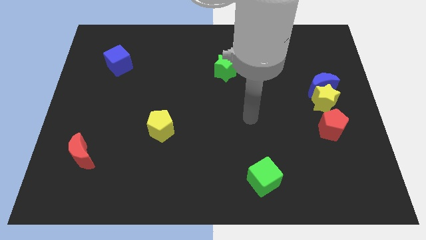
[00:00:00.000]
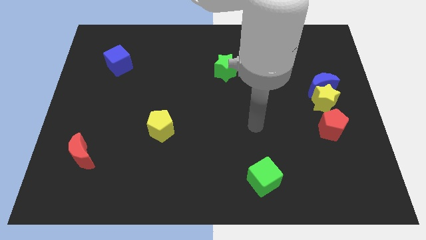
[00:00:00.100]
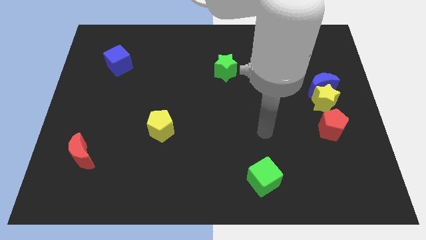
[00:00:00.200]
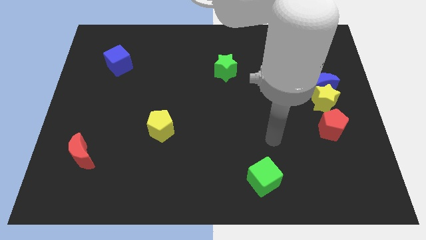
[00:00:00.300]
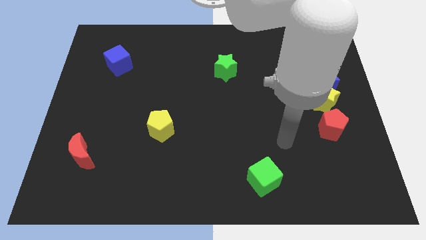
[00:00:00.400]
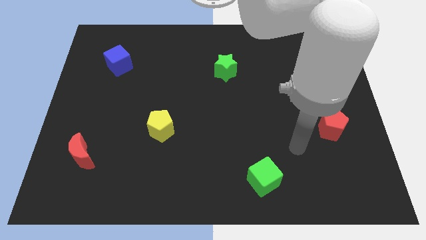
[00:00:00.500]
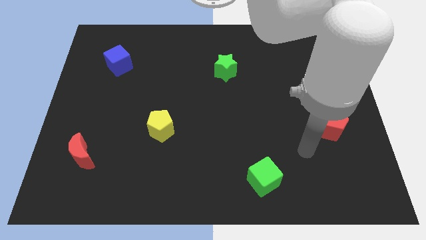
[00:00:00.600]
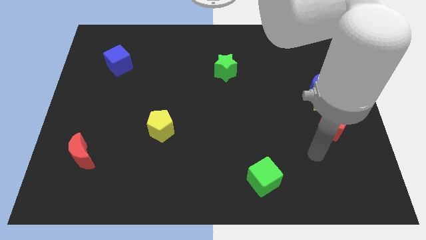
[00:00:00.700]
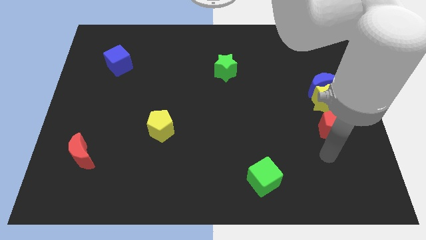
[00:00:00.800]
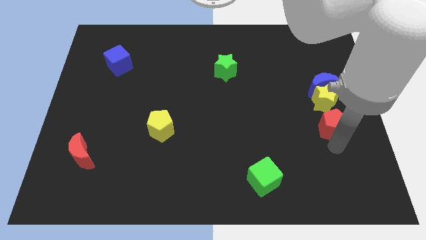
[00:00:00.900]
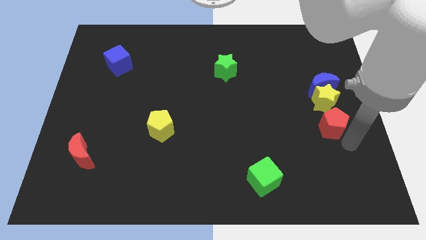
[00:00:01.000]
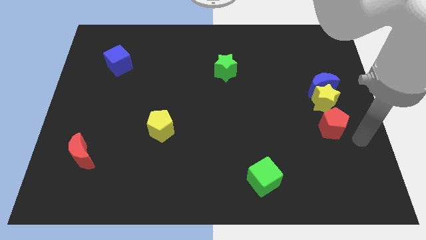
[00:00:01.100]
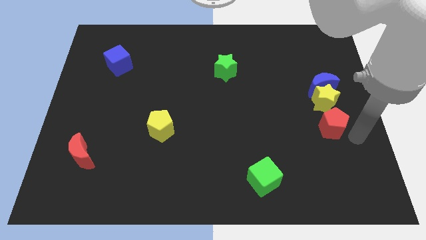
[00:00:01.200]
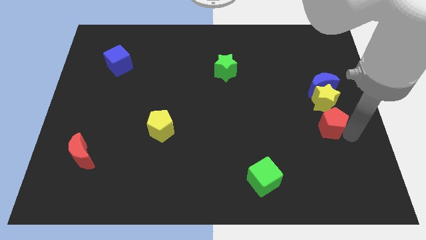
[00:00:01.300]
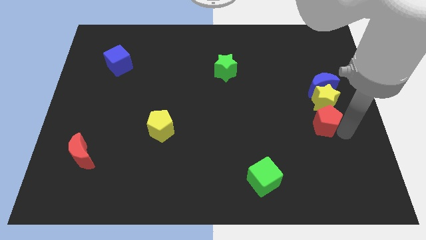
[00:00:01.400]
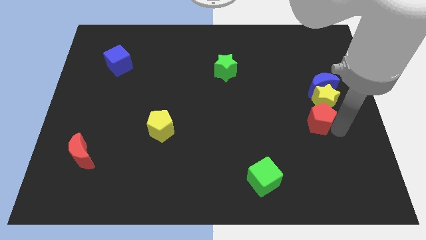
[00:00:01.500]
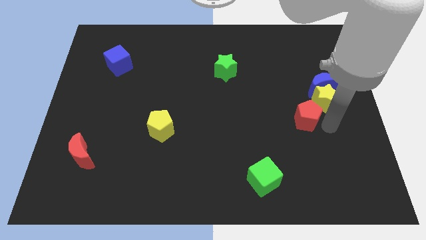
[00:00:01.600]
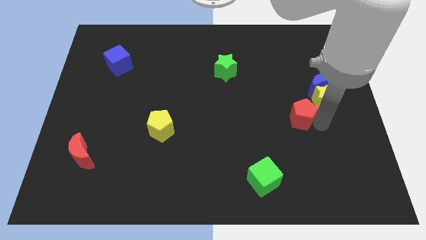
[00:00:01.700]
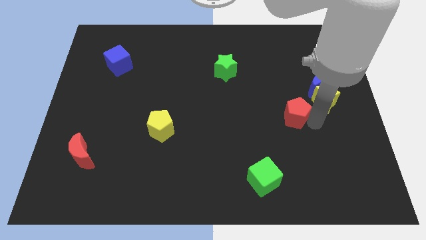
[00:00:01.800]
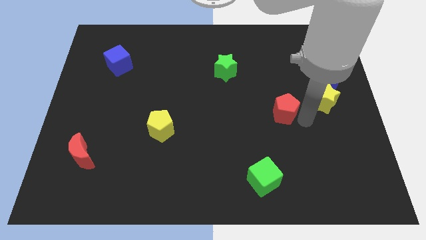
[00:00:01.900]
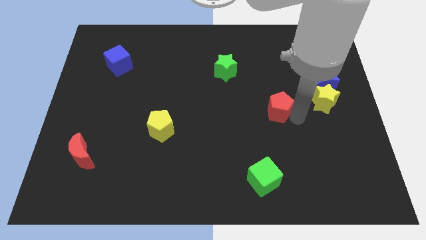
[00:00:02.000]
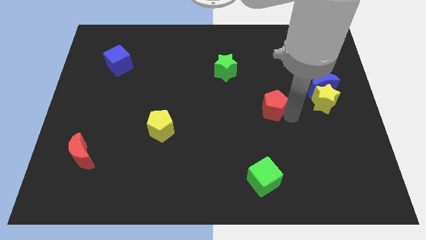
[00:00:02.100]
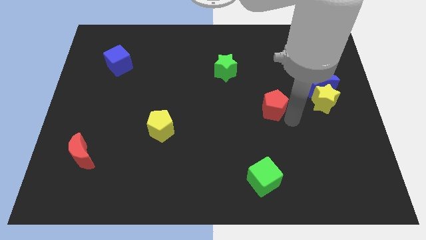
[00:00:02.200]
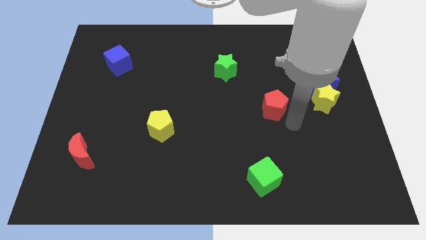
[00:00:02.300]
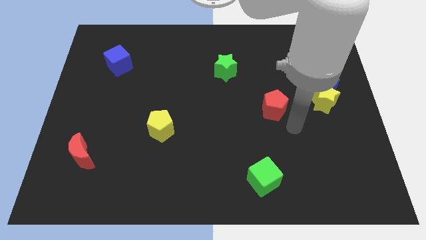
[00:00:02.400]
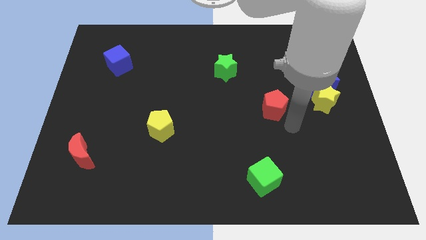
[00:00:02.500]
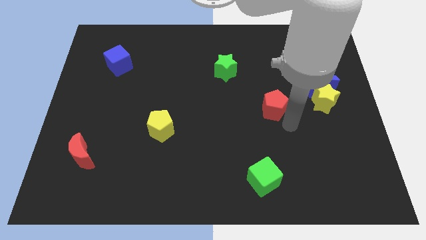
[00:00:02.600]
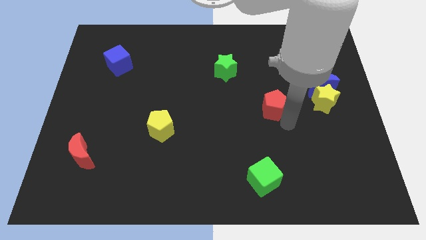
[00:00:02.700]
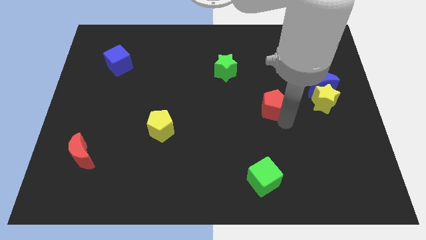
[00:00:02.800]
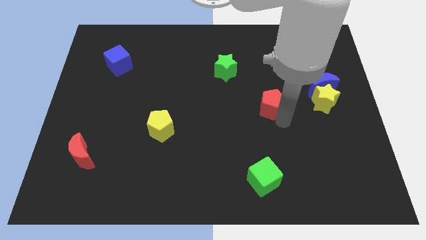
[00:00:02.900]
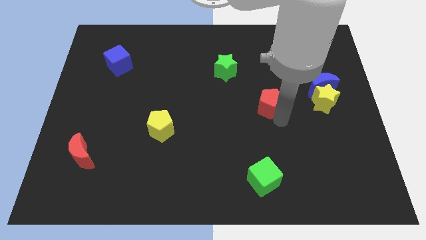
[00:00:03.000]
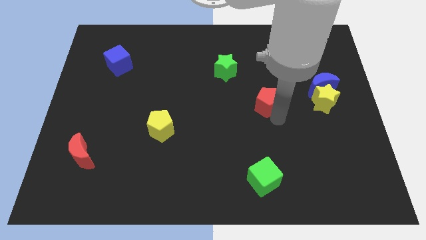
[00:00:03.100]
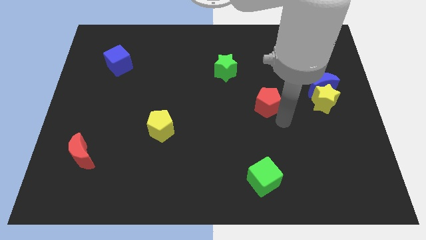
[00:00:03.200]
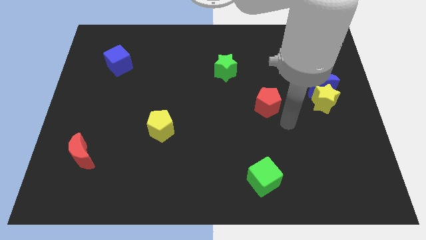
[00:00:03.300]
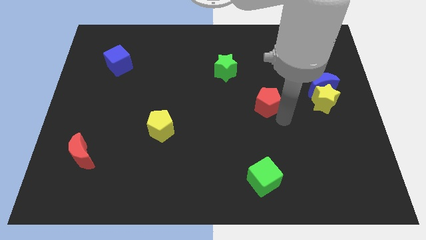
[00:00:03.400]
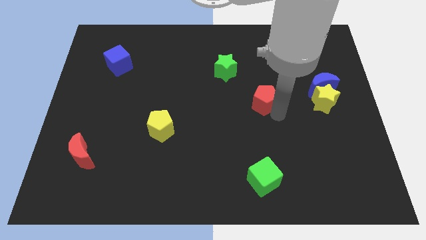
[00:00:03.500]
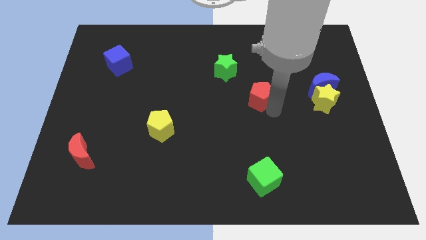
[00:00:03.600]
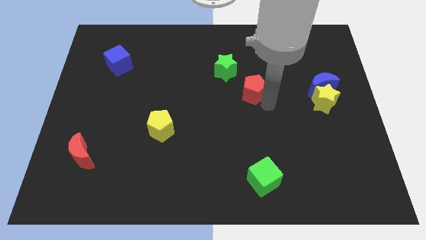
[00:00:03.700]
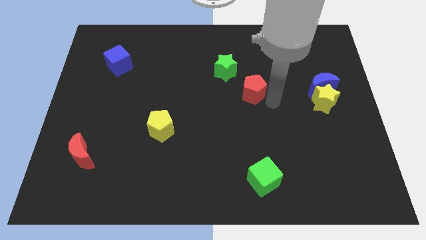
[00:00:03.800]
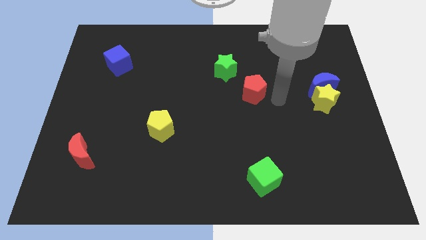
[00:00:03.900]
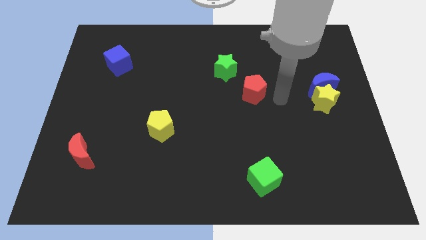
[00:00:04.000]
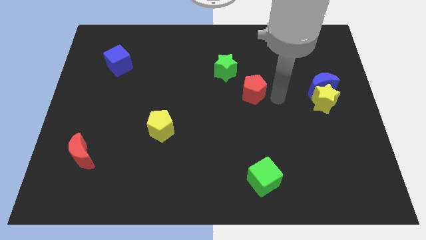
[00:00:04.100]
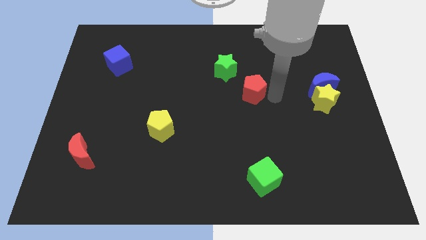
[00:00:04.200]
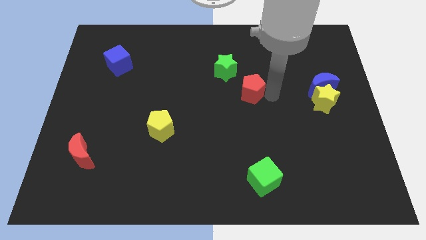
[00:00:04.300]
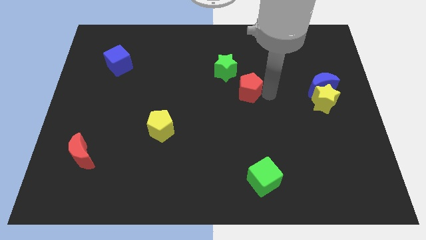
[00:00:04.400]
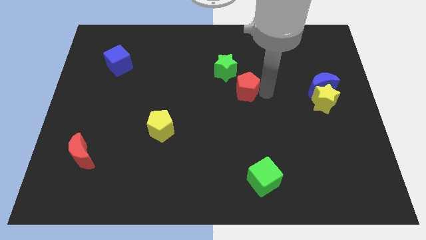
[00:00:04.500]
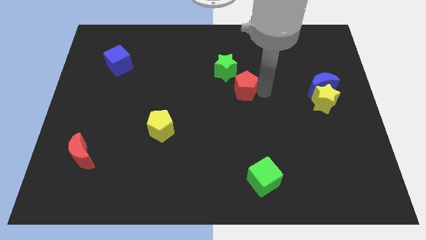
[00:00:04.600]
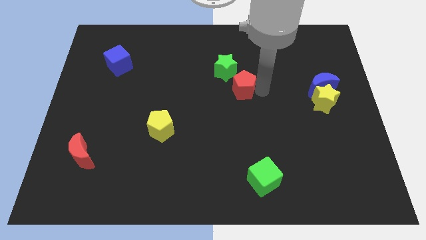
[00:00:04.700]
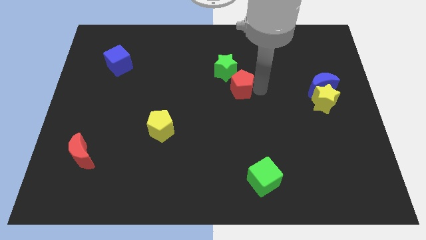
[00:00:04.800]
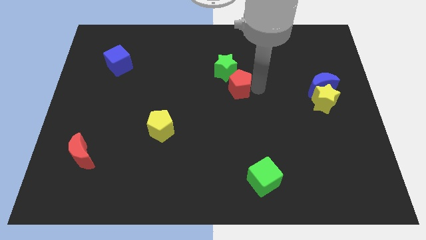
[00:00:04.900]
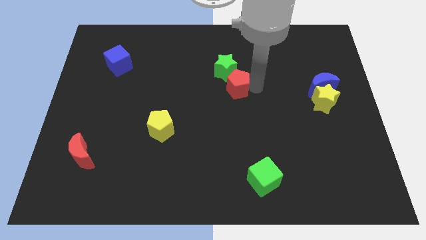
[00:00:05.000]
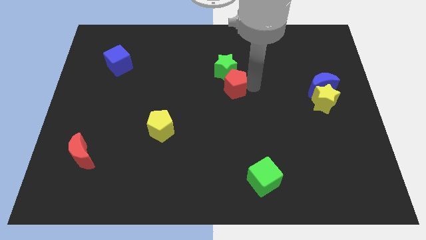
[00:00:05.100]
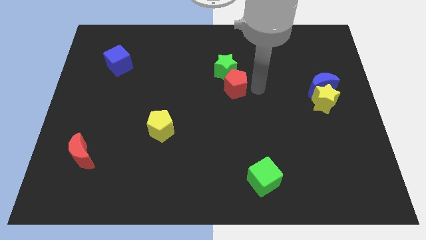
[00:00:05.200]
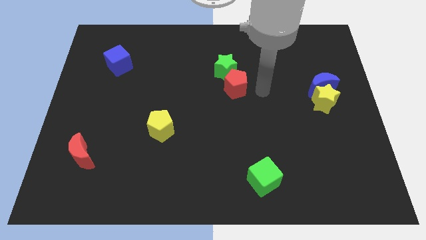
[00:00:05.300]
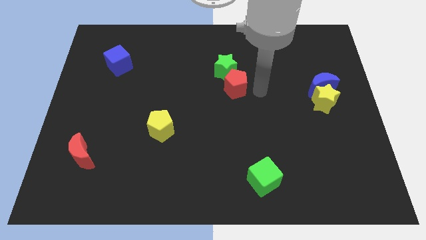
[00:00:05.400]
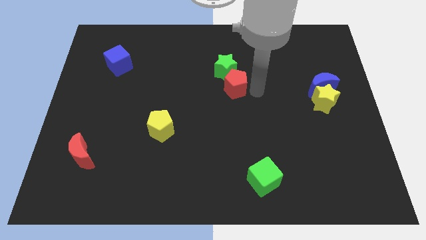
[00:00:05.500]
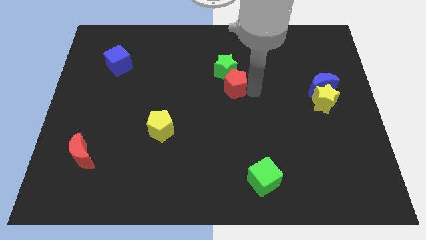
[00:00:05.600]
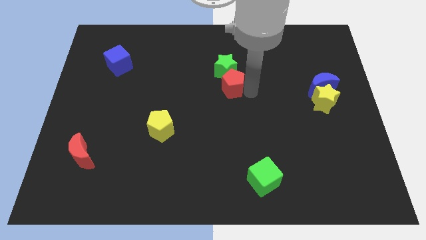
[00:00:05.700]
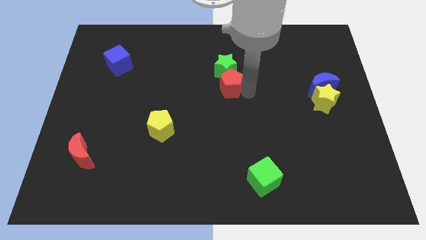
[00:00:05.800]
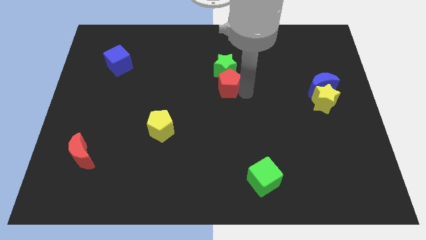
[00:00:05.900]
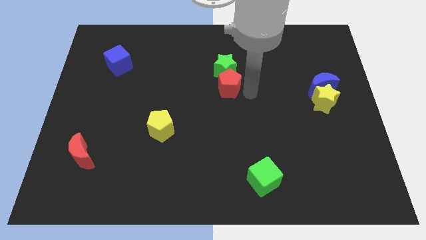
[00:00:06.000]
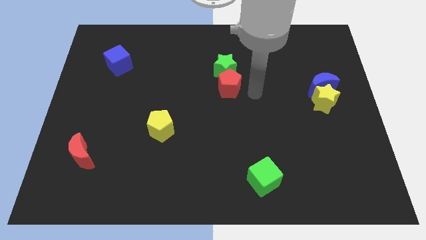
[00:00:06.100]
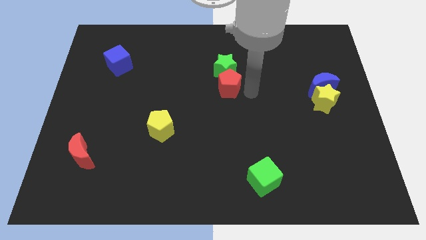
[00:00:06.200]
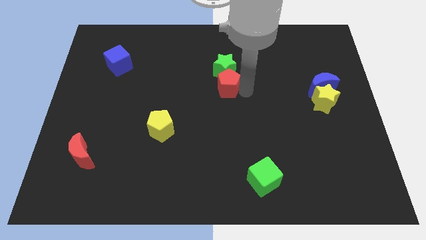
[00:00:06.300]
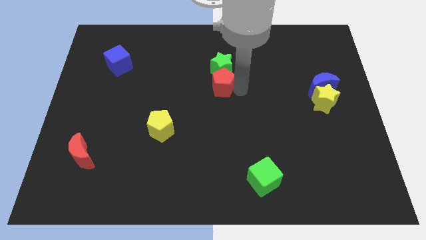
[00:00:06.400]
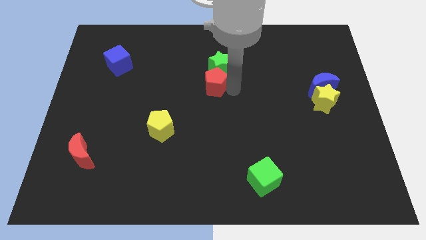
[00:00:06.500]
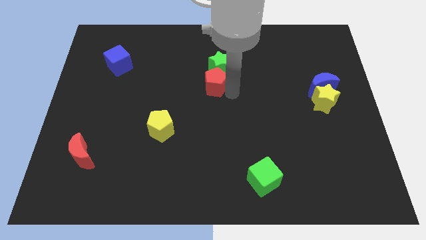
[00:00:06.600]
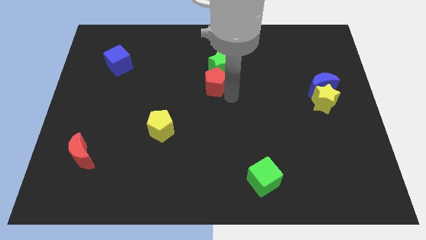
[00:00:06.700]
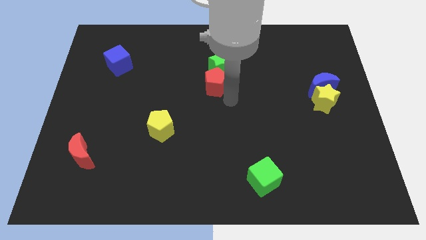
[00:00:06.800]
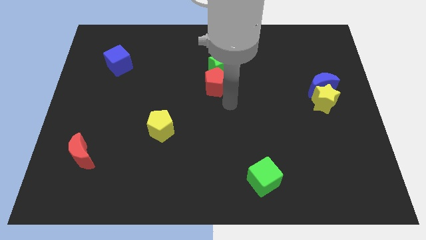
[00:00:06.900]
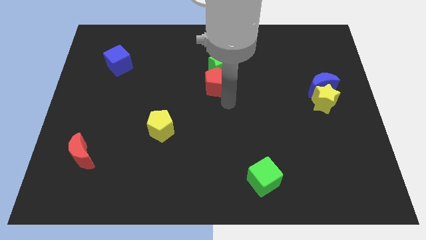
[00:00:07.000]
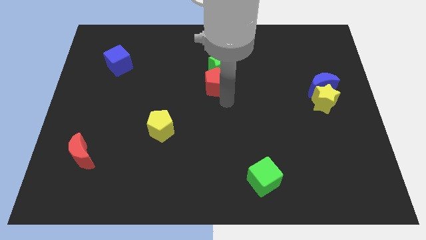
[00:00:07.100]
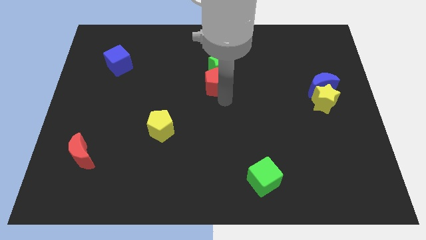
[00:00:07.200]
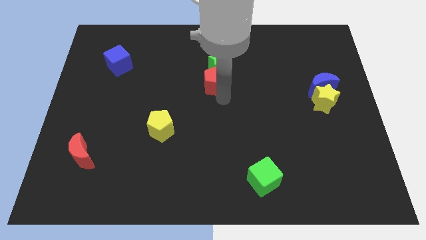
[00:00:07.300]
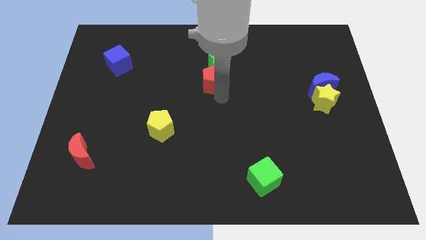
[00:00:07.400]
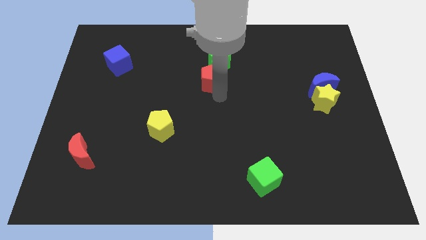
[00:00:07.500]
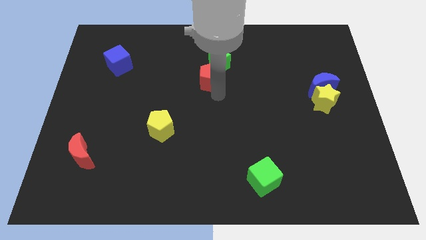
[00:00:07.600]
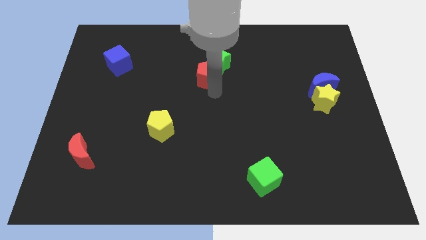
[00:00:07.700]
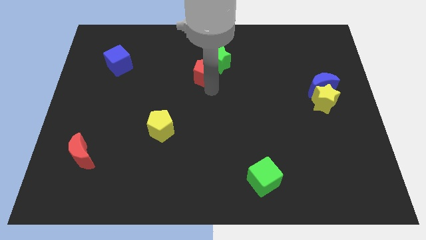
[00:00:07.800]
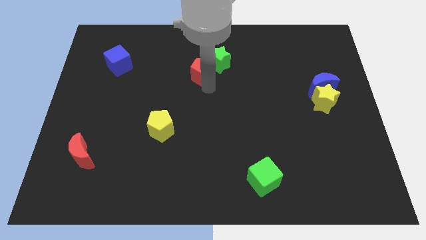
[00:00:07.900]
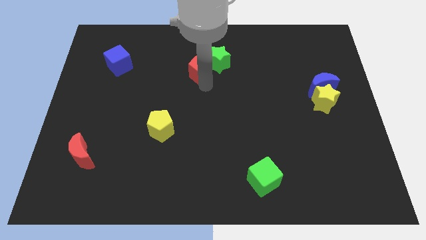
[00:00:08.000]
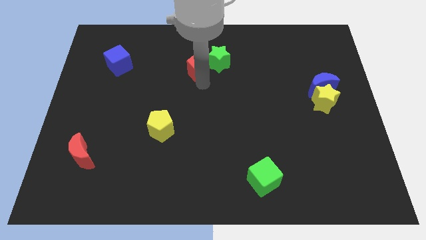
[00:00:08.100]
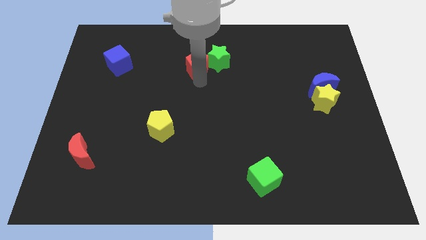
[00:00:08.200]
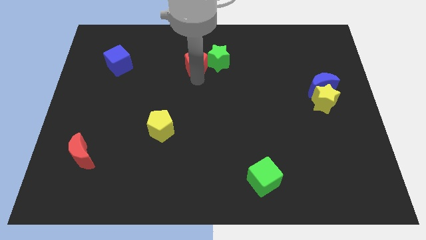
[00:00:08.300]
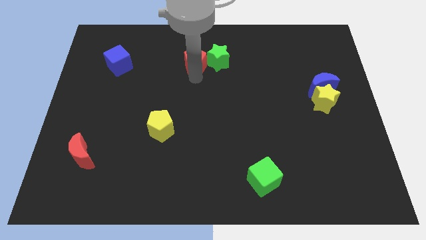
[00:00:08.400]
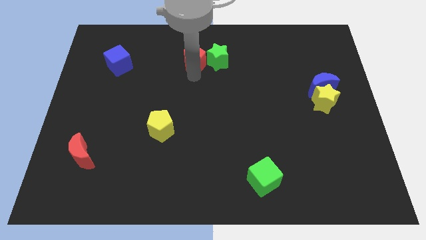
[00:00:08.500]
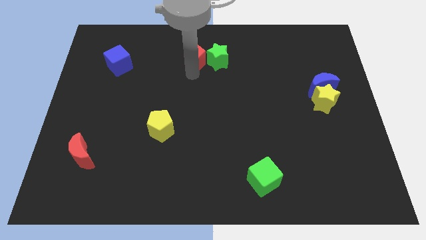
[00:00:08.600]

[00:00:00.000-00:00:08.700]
move the red pentagon to the top left side of the green star
